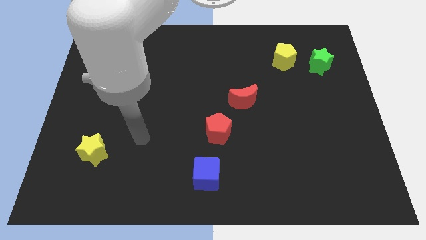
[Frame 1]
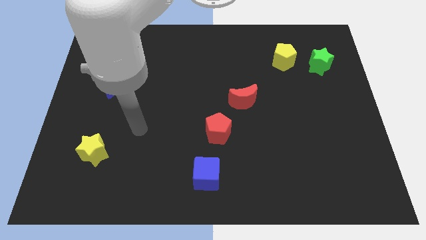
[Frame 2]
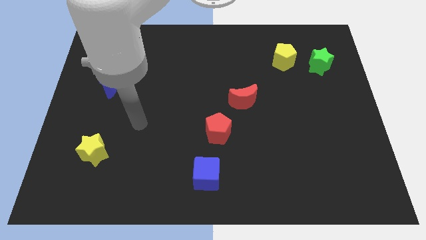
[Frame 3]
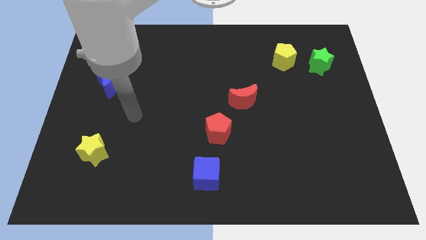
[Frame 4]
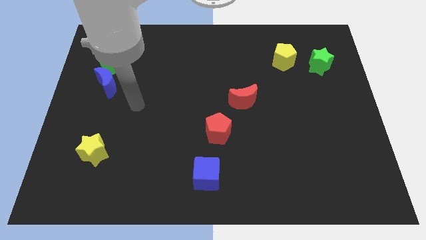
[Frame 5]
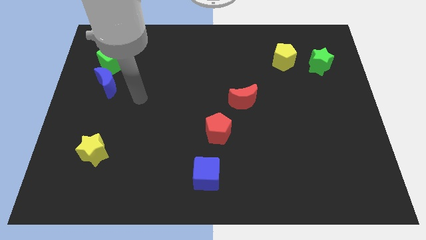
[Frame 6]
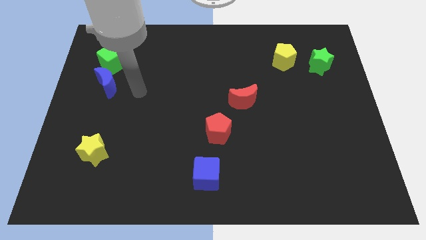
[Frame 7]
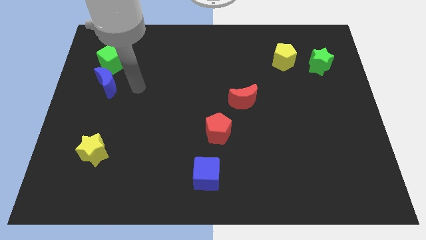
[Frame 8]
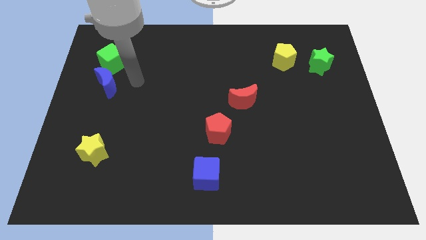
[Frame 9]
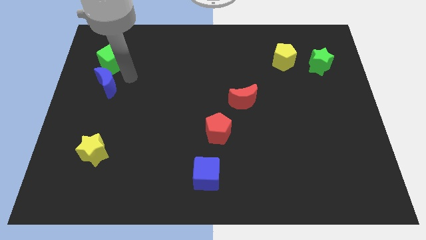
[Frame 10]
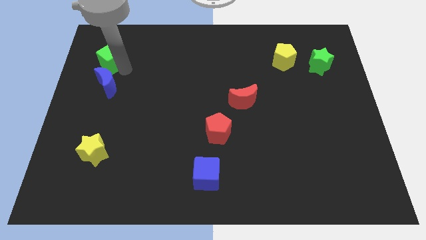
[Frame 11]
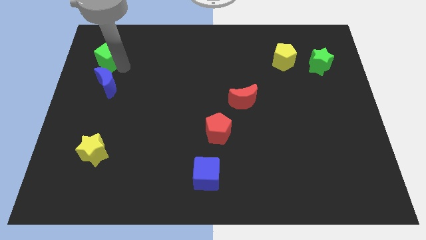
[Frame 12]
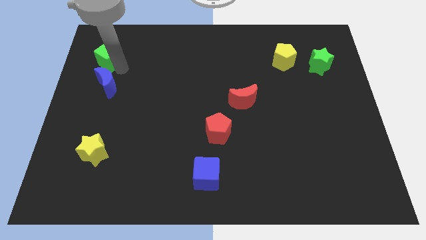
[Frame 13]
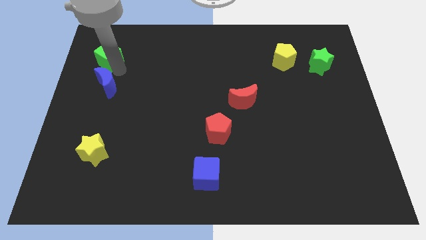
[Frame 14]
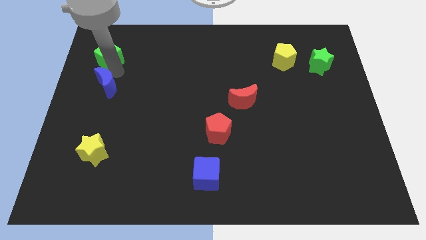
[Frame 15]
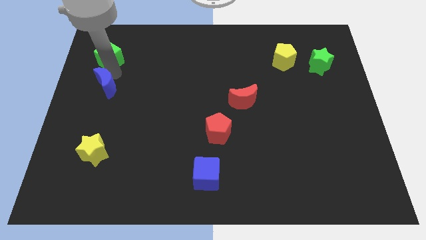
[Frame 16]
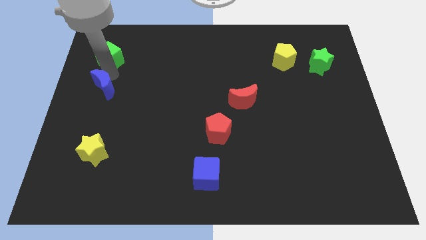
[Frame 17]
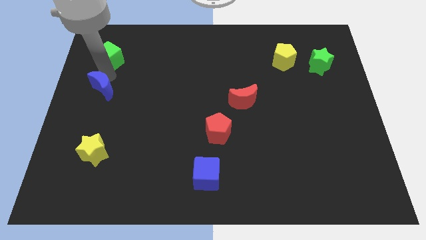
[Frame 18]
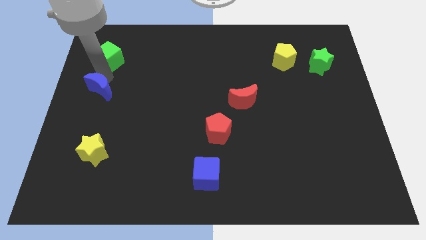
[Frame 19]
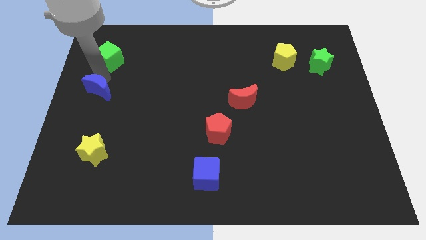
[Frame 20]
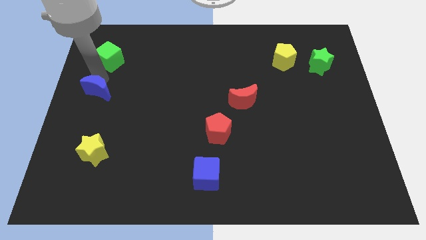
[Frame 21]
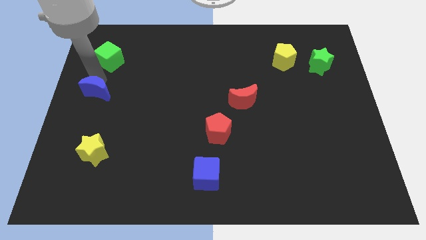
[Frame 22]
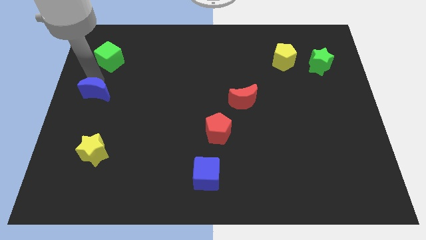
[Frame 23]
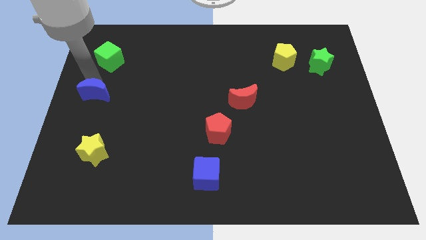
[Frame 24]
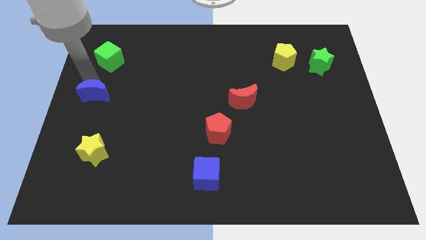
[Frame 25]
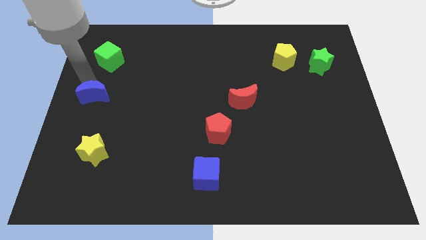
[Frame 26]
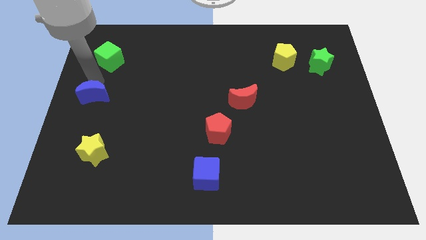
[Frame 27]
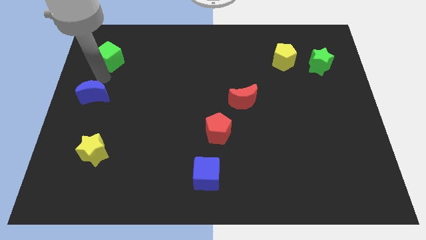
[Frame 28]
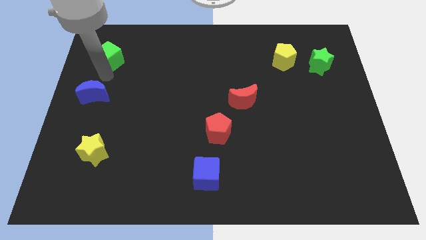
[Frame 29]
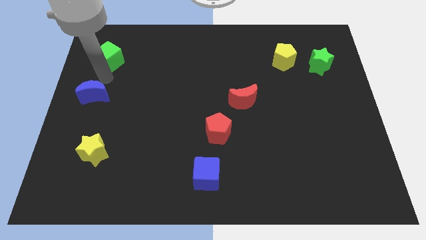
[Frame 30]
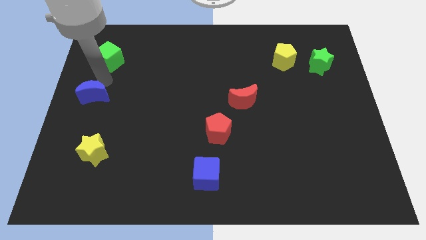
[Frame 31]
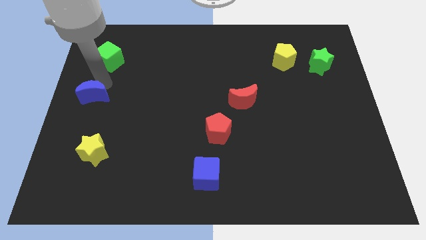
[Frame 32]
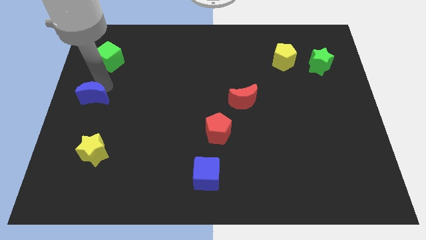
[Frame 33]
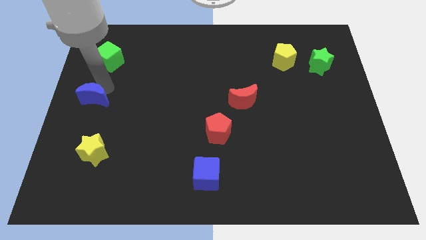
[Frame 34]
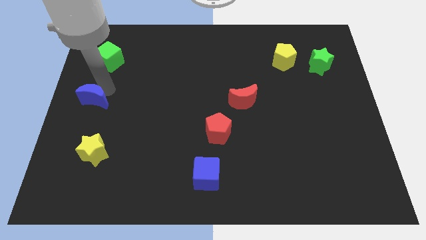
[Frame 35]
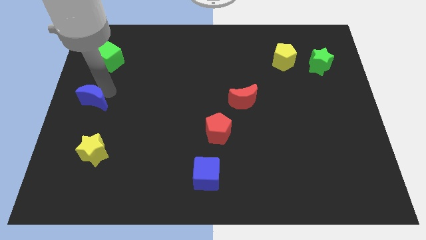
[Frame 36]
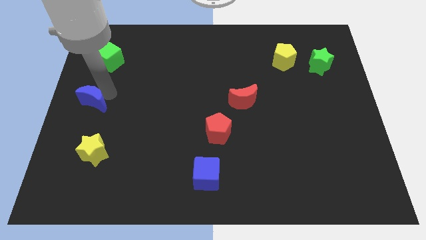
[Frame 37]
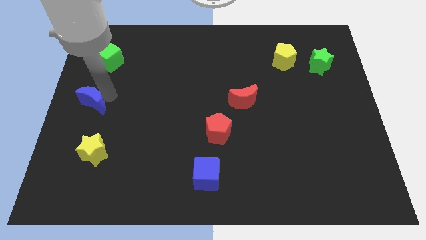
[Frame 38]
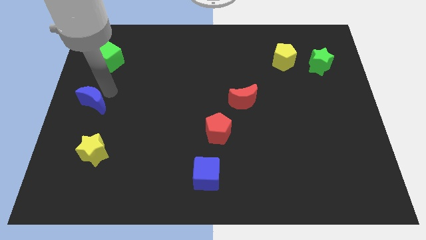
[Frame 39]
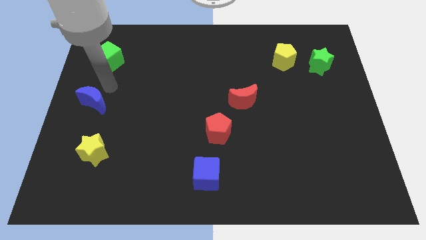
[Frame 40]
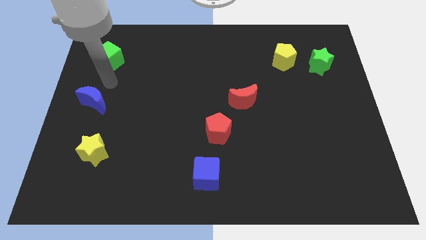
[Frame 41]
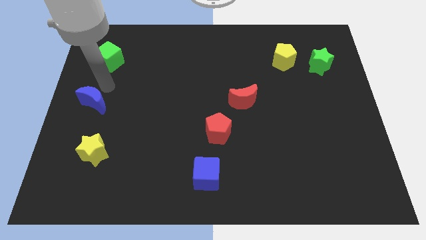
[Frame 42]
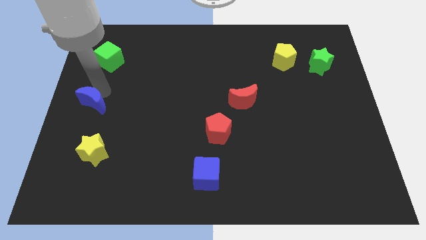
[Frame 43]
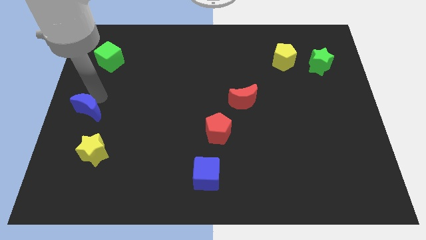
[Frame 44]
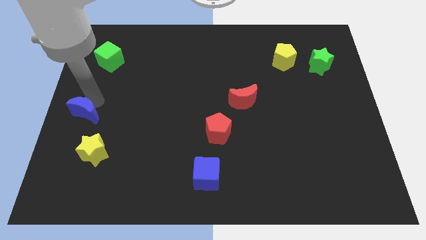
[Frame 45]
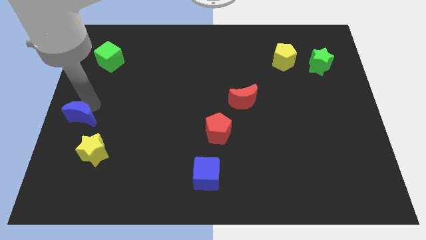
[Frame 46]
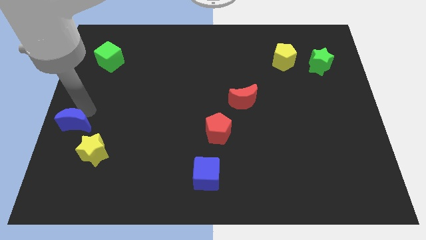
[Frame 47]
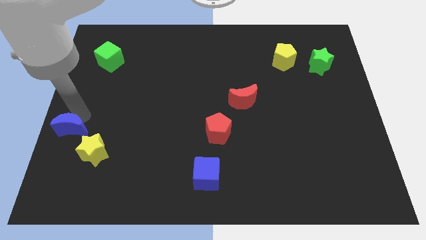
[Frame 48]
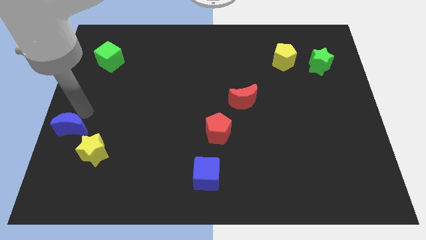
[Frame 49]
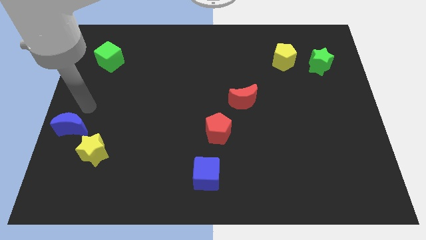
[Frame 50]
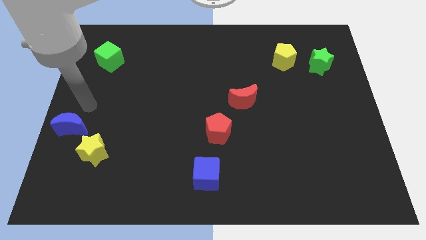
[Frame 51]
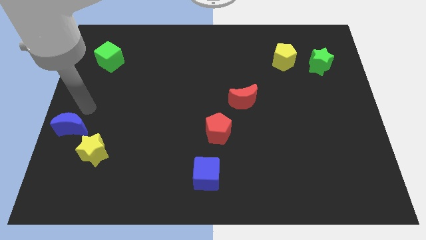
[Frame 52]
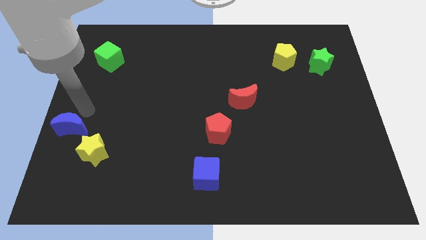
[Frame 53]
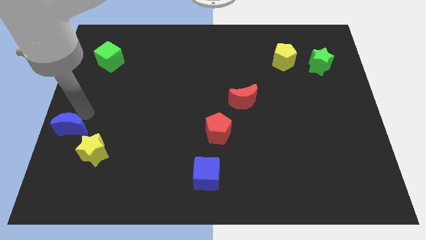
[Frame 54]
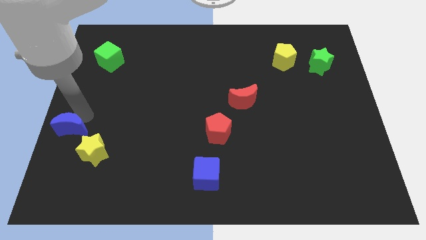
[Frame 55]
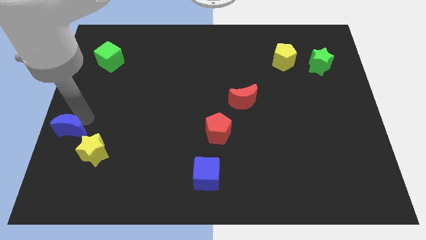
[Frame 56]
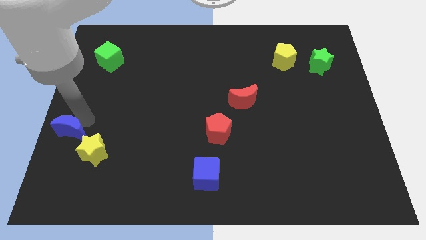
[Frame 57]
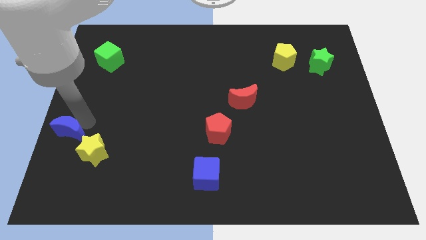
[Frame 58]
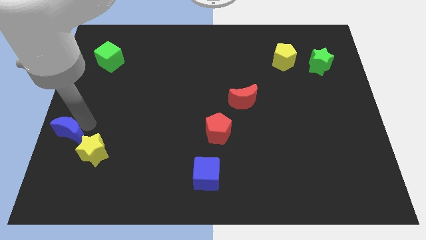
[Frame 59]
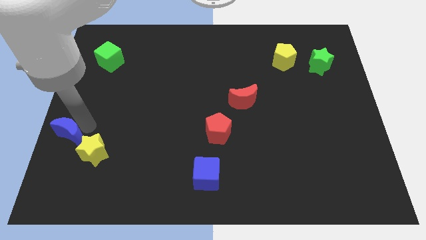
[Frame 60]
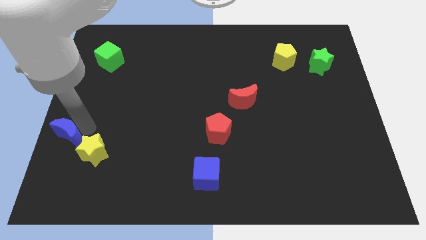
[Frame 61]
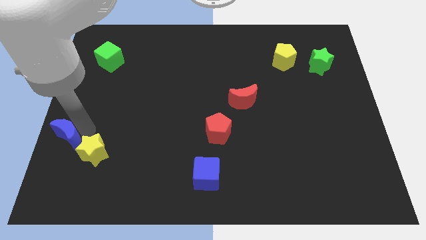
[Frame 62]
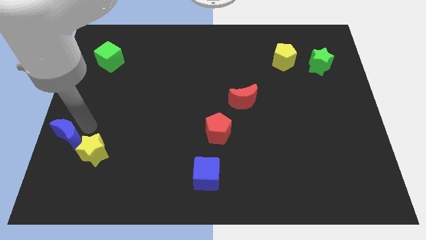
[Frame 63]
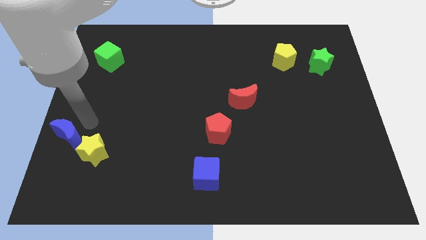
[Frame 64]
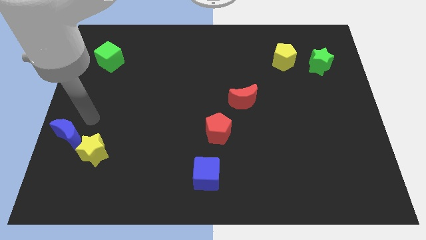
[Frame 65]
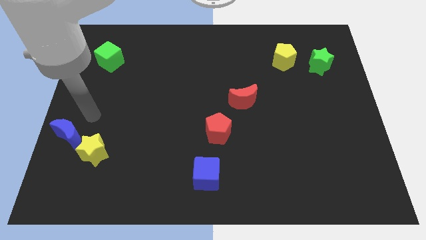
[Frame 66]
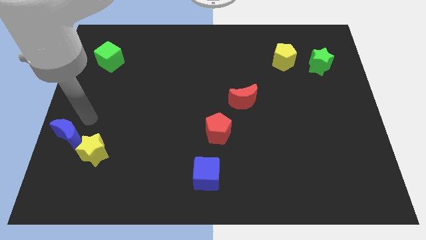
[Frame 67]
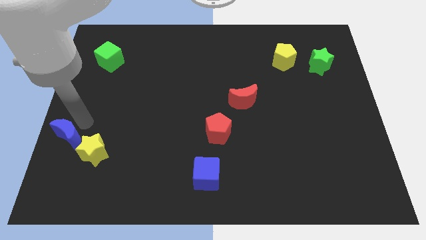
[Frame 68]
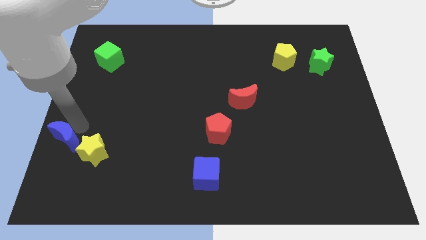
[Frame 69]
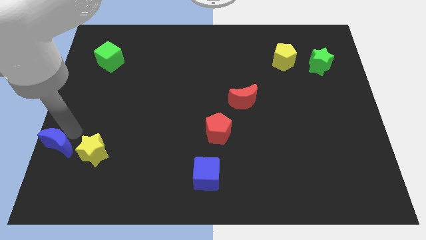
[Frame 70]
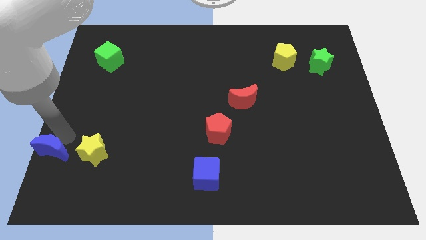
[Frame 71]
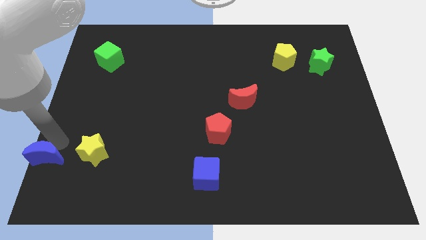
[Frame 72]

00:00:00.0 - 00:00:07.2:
slide the blue moon to the lower left corner
